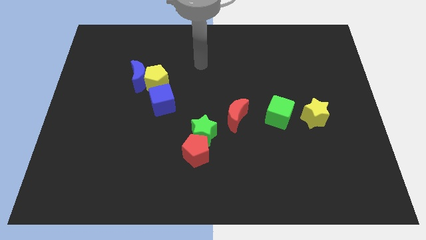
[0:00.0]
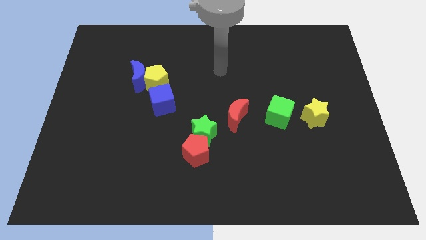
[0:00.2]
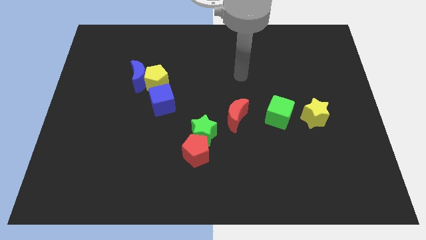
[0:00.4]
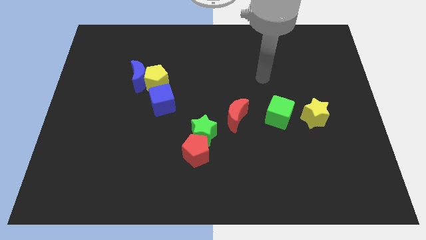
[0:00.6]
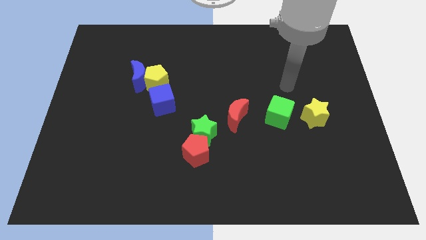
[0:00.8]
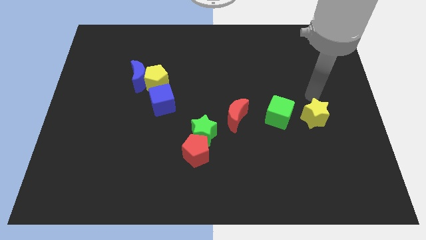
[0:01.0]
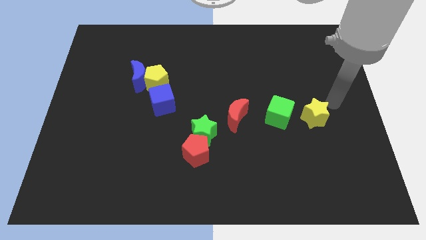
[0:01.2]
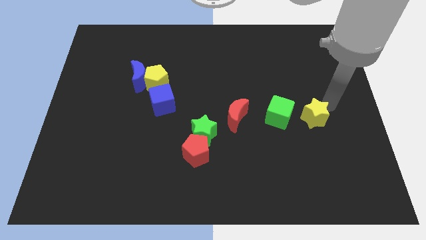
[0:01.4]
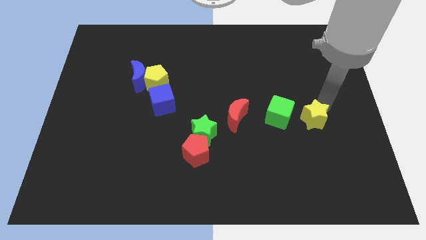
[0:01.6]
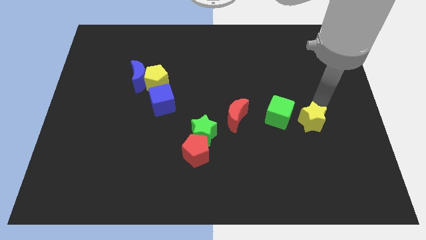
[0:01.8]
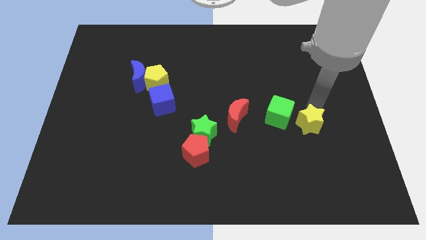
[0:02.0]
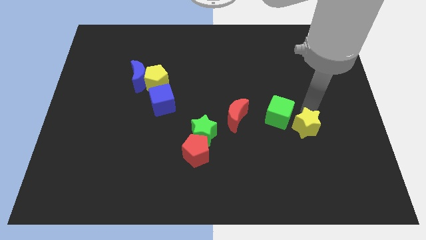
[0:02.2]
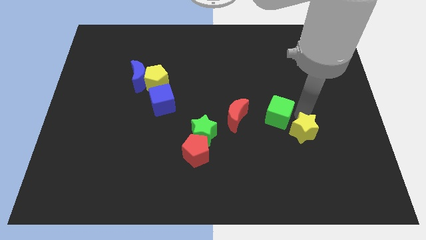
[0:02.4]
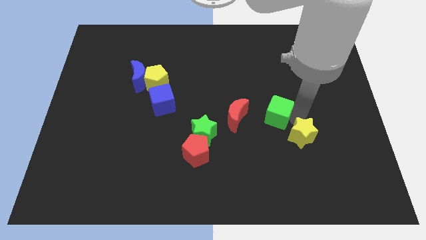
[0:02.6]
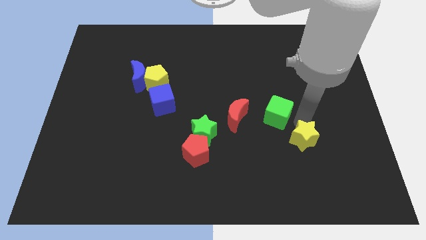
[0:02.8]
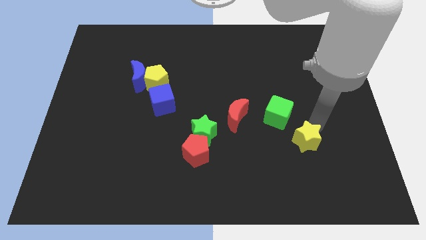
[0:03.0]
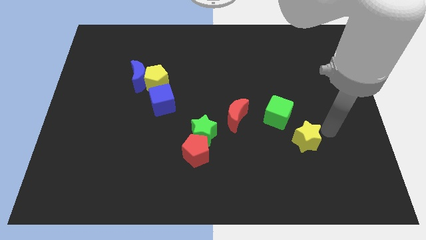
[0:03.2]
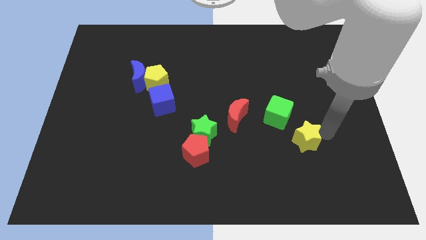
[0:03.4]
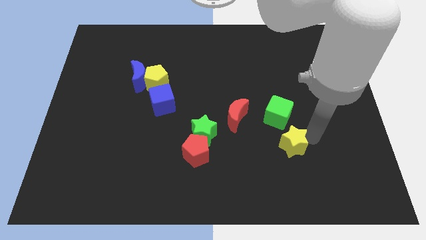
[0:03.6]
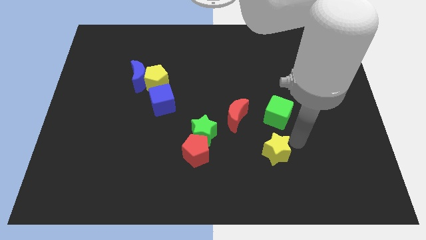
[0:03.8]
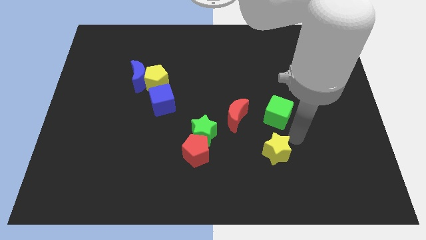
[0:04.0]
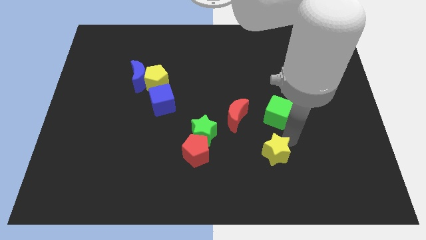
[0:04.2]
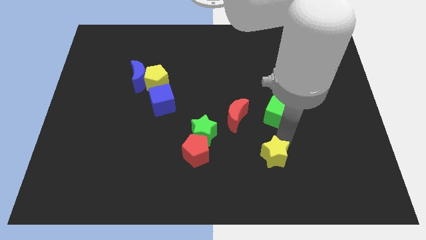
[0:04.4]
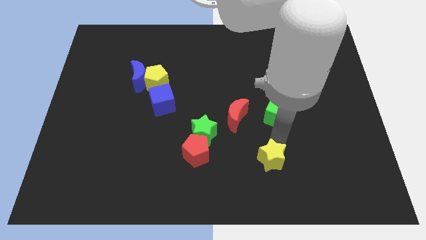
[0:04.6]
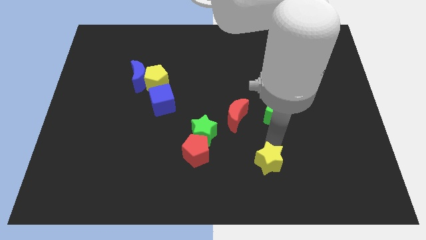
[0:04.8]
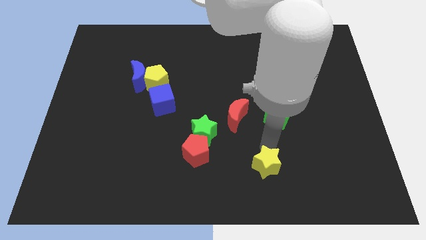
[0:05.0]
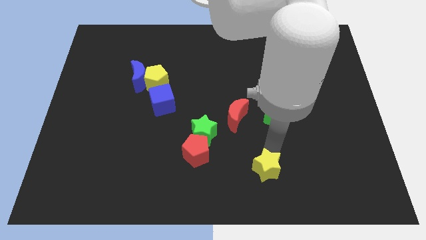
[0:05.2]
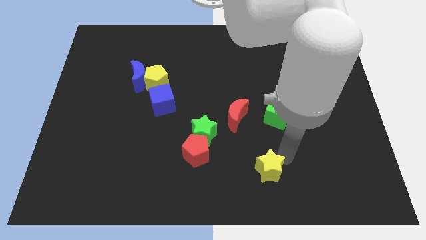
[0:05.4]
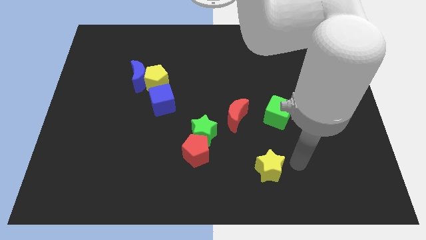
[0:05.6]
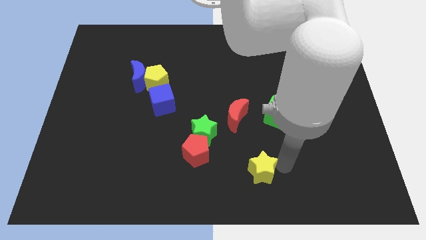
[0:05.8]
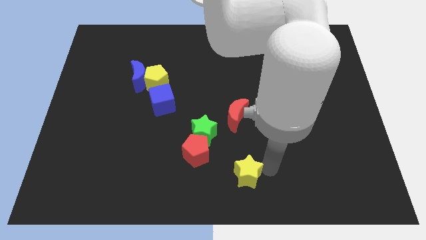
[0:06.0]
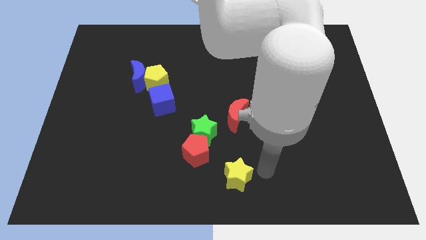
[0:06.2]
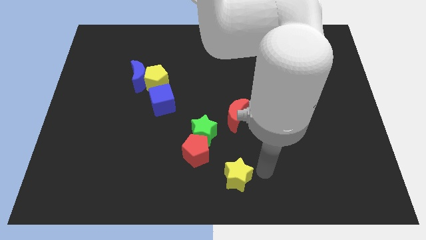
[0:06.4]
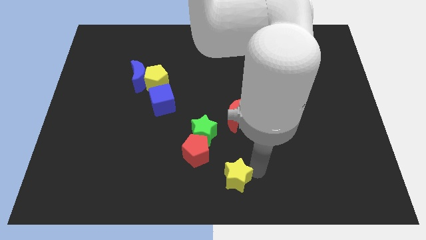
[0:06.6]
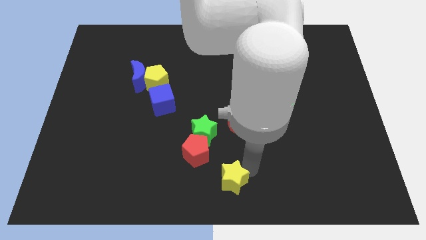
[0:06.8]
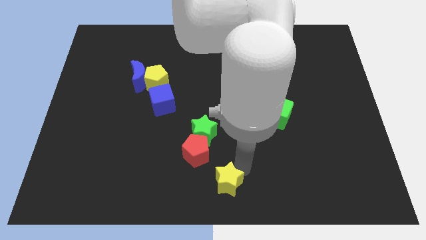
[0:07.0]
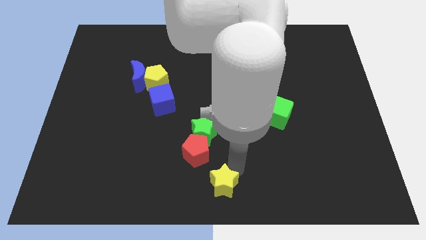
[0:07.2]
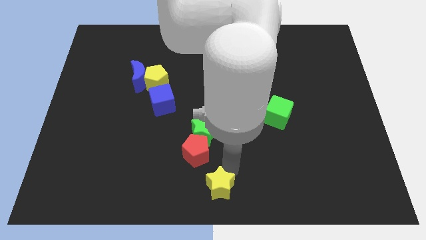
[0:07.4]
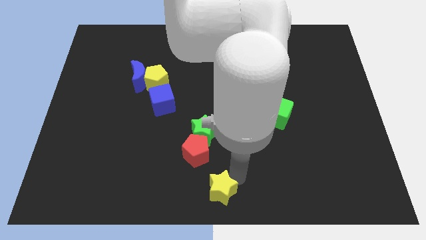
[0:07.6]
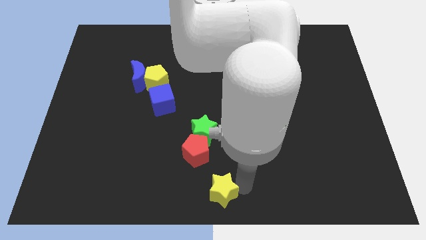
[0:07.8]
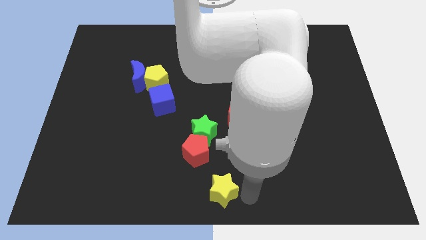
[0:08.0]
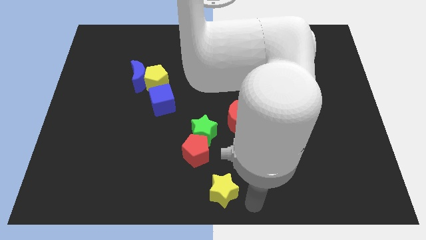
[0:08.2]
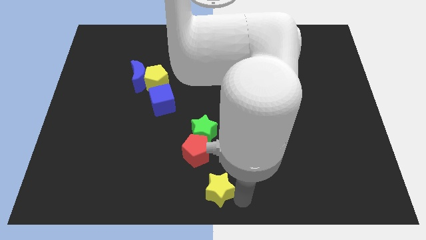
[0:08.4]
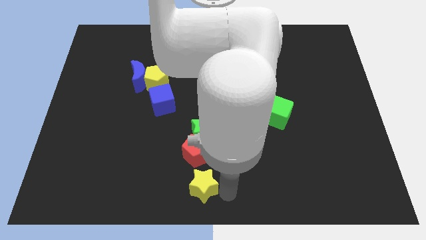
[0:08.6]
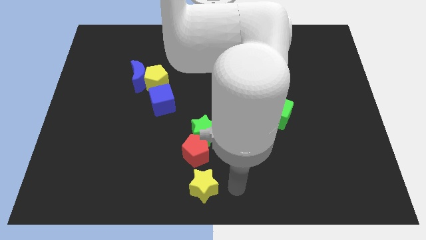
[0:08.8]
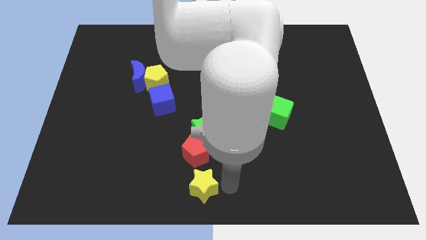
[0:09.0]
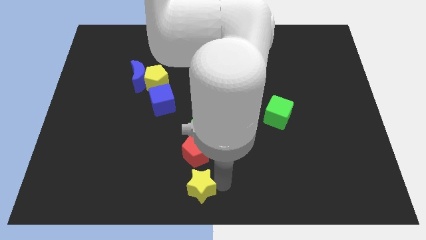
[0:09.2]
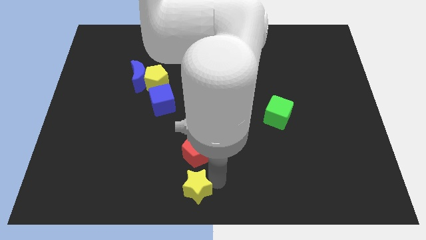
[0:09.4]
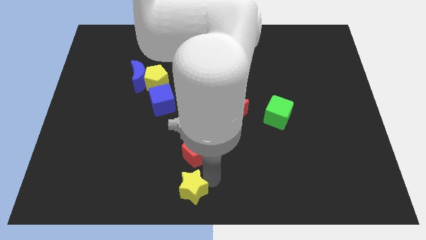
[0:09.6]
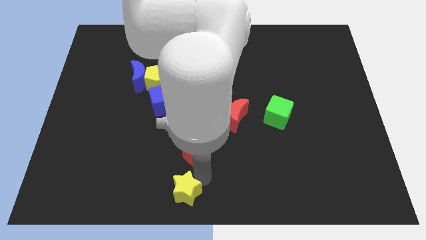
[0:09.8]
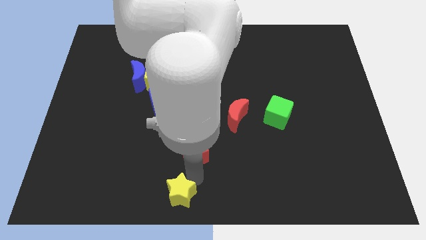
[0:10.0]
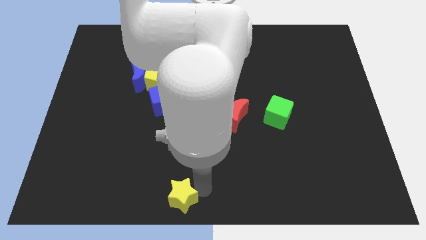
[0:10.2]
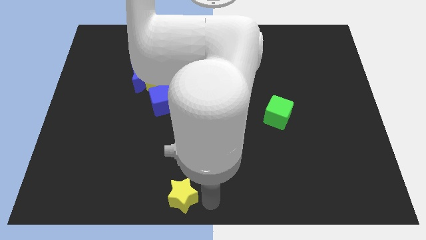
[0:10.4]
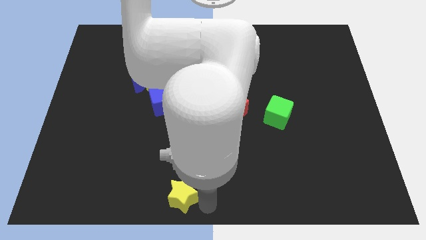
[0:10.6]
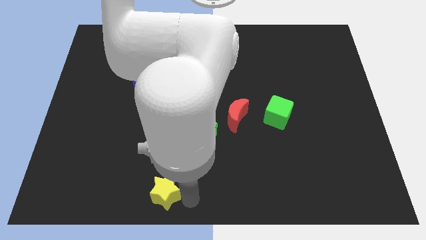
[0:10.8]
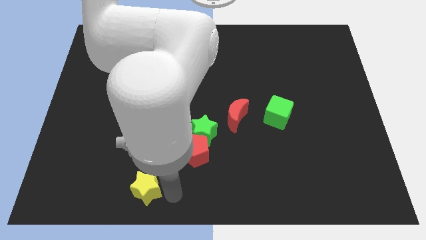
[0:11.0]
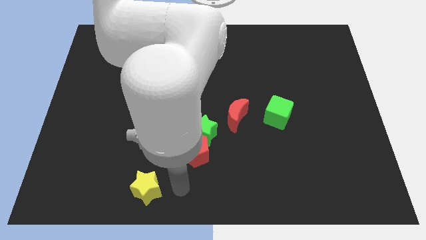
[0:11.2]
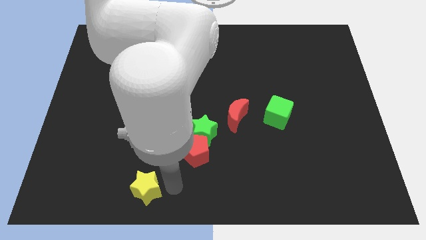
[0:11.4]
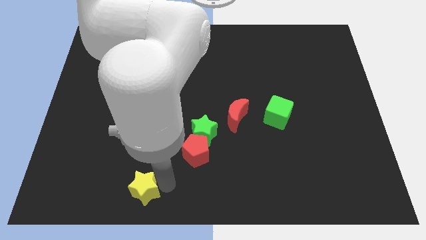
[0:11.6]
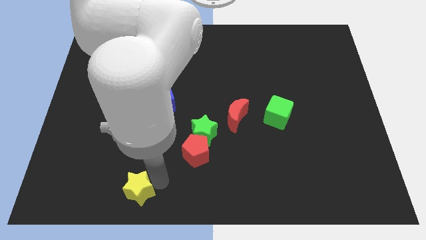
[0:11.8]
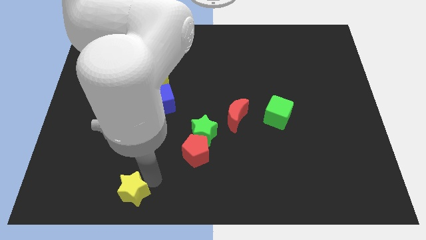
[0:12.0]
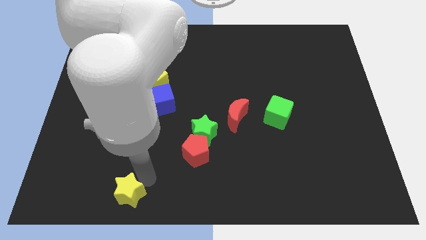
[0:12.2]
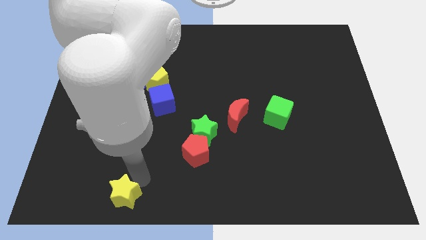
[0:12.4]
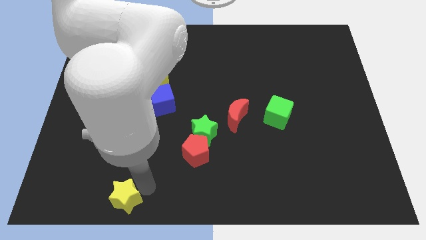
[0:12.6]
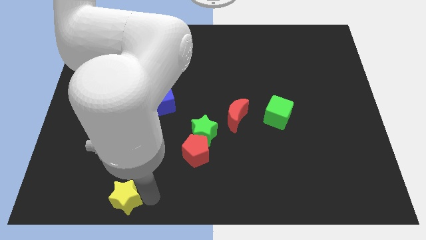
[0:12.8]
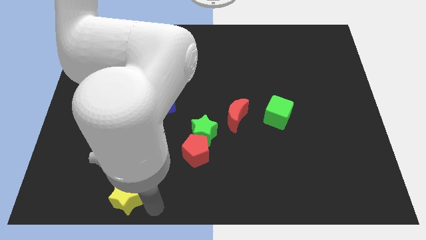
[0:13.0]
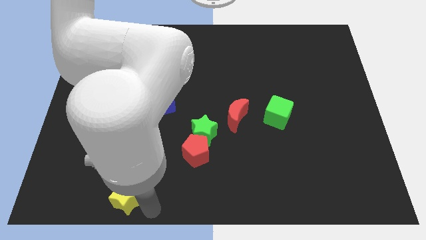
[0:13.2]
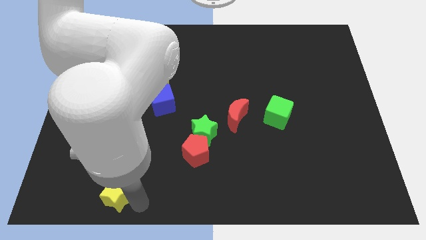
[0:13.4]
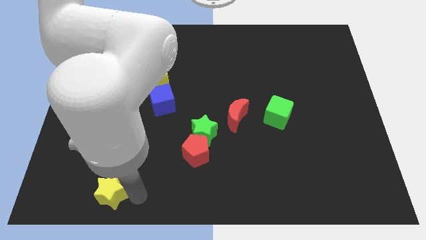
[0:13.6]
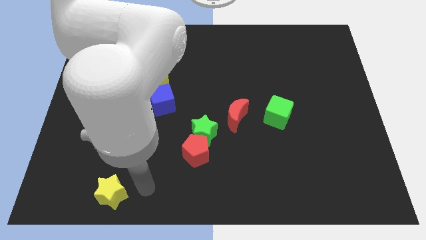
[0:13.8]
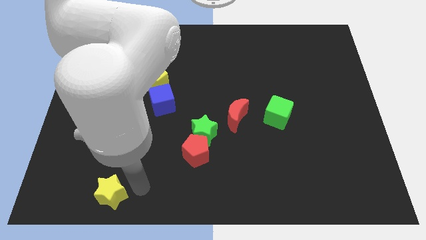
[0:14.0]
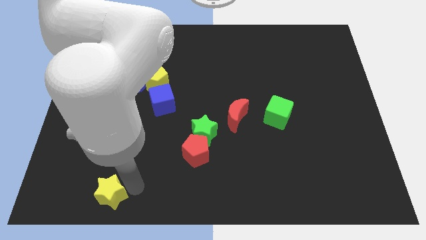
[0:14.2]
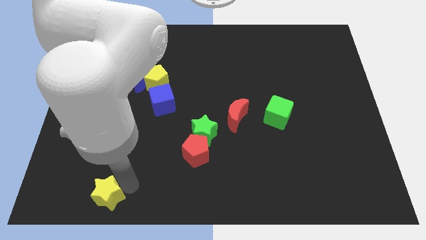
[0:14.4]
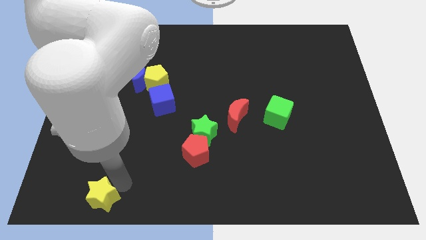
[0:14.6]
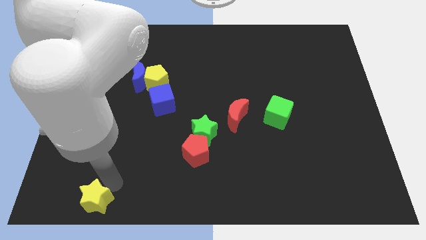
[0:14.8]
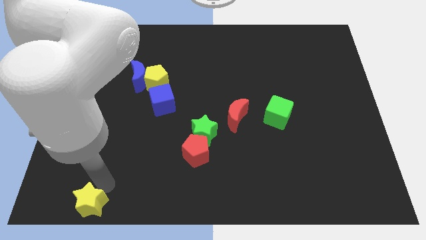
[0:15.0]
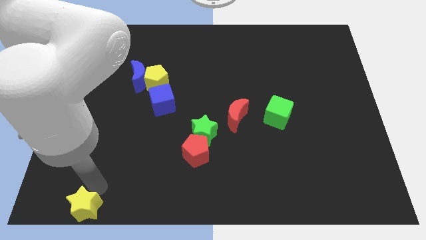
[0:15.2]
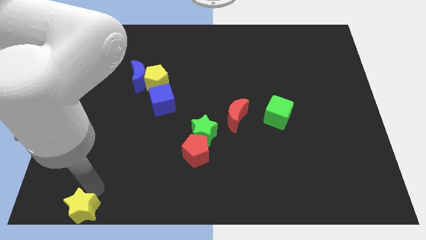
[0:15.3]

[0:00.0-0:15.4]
slide the yellow star to the bottom left of the board
